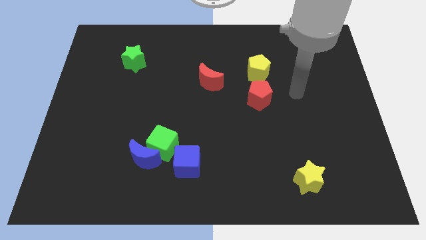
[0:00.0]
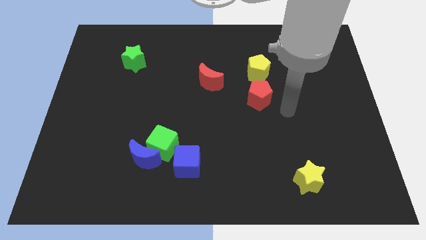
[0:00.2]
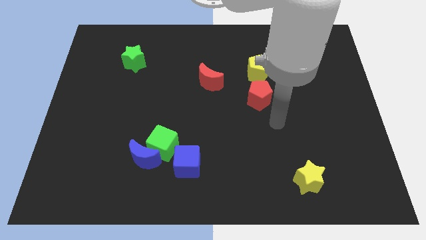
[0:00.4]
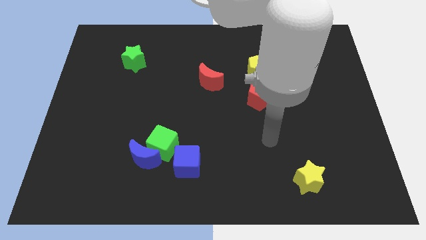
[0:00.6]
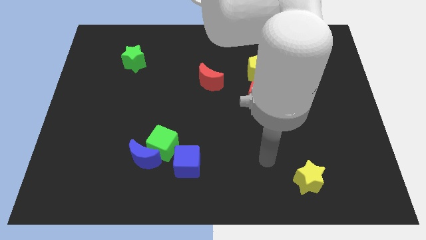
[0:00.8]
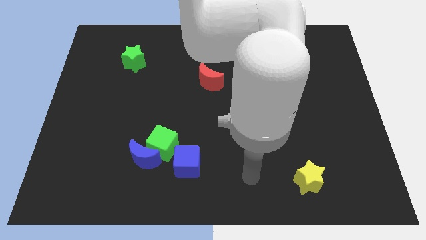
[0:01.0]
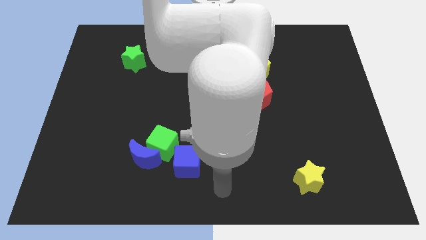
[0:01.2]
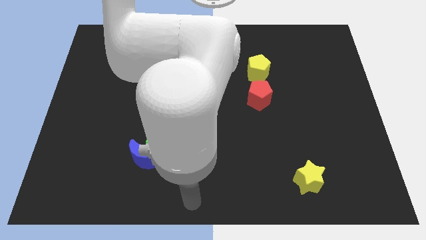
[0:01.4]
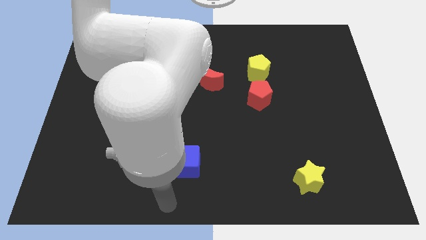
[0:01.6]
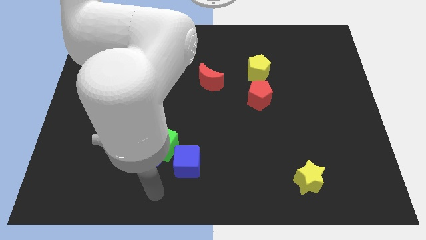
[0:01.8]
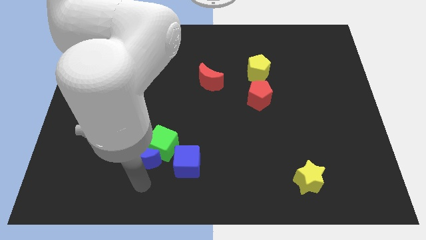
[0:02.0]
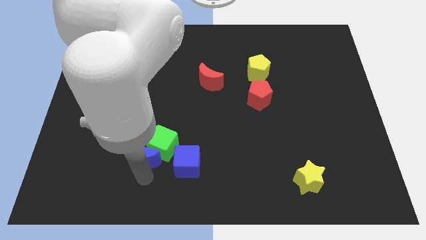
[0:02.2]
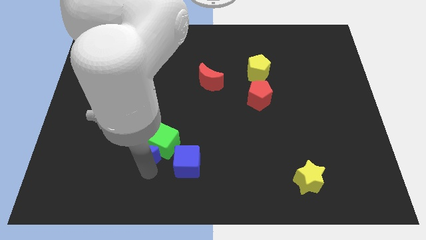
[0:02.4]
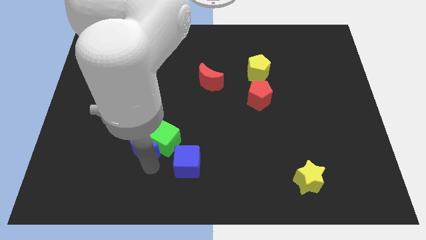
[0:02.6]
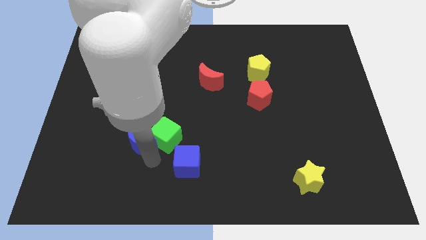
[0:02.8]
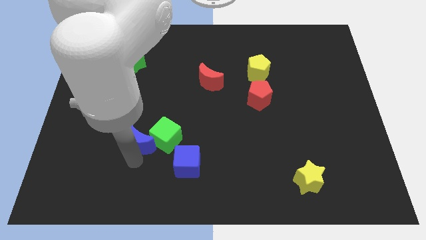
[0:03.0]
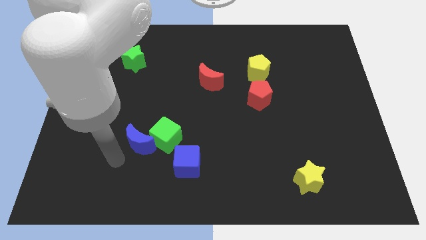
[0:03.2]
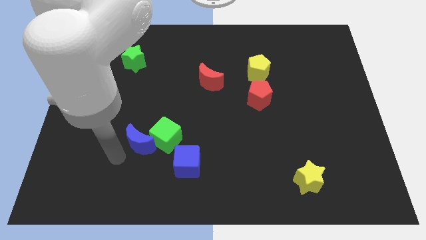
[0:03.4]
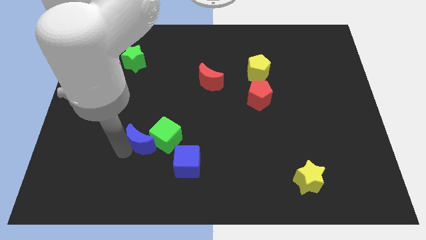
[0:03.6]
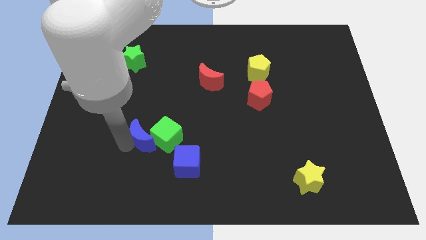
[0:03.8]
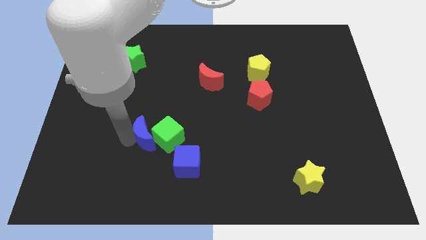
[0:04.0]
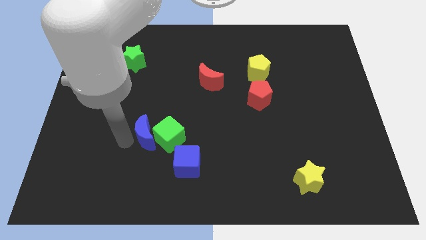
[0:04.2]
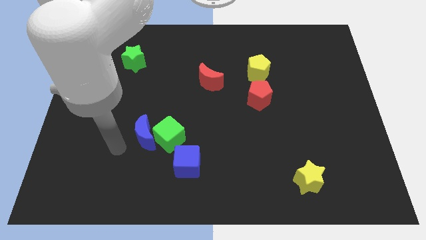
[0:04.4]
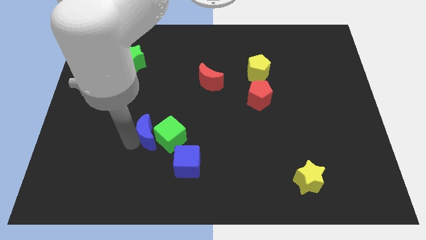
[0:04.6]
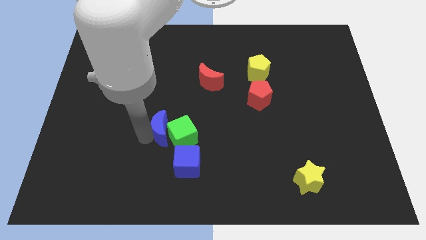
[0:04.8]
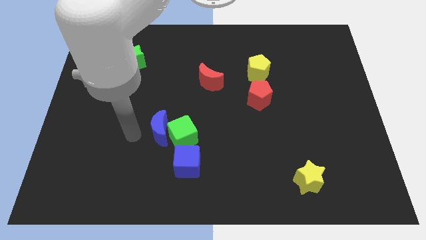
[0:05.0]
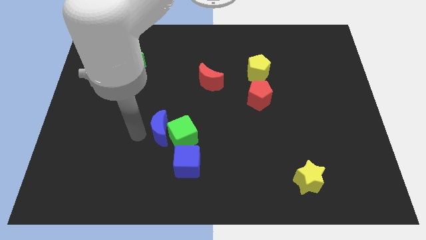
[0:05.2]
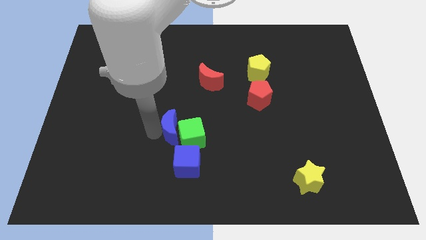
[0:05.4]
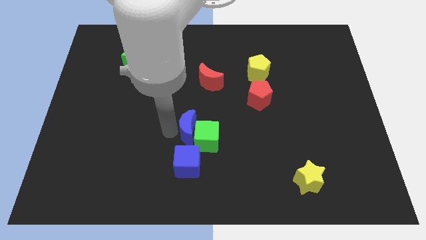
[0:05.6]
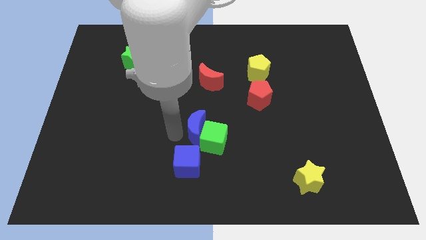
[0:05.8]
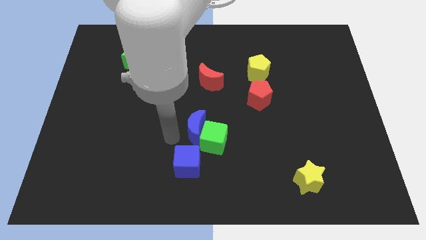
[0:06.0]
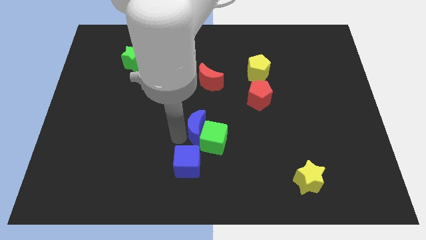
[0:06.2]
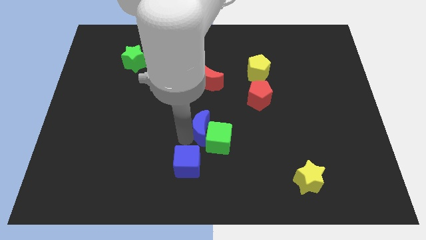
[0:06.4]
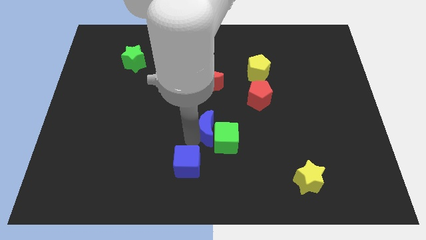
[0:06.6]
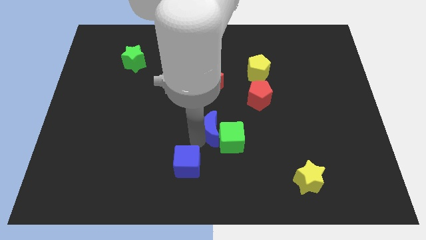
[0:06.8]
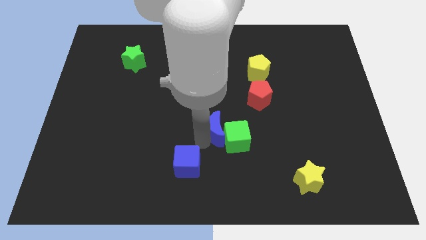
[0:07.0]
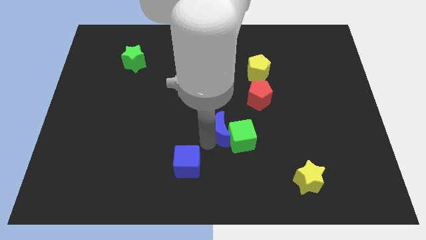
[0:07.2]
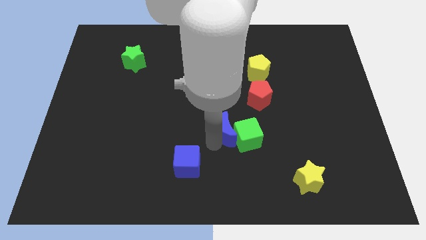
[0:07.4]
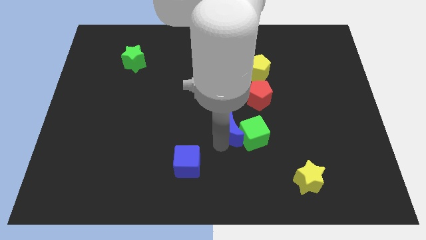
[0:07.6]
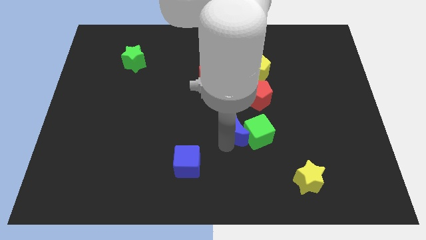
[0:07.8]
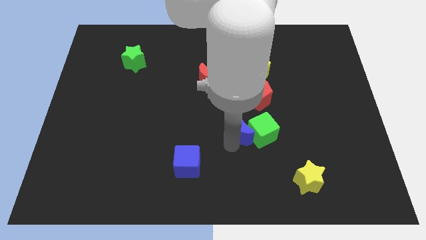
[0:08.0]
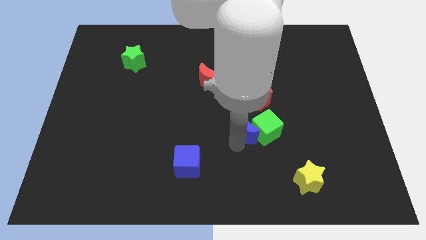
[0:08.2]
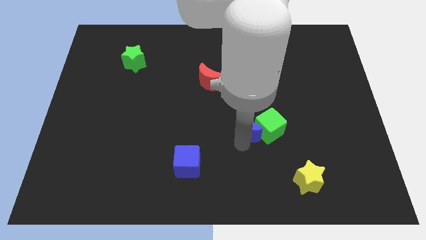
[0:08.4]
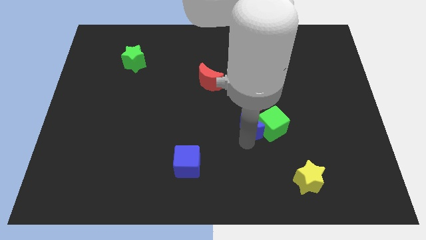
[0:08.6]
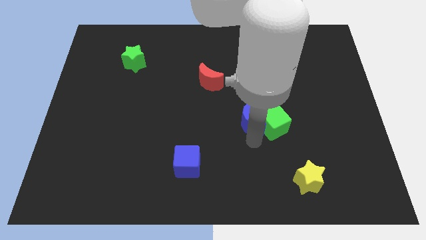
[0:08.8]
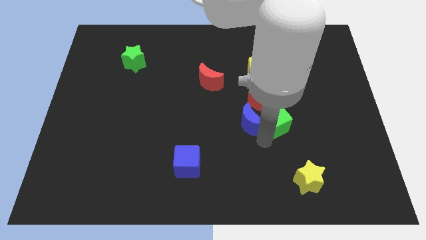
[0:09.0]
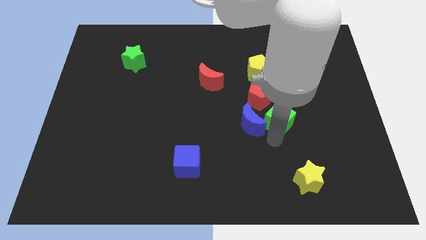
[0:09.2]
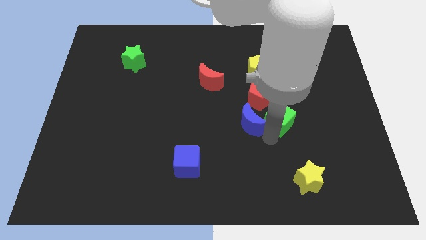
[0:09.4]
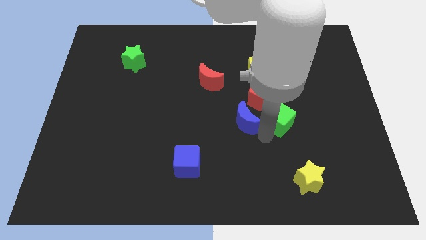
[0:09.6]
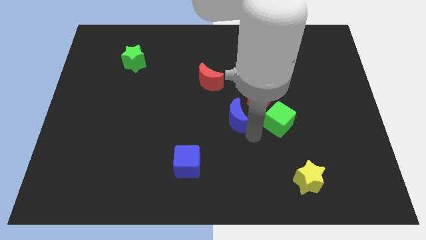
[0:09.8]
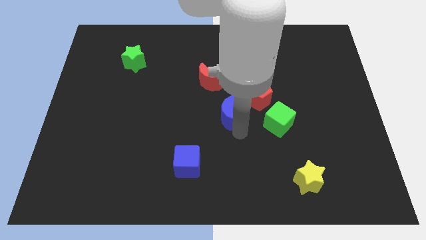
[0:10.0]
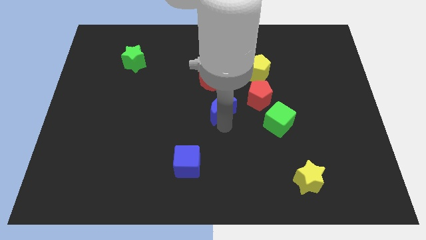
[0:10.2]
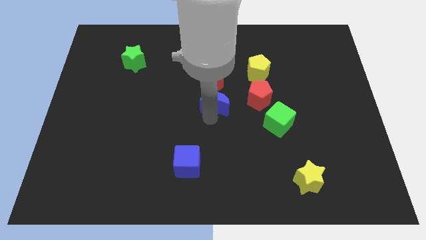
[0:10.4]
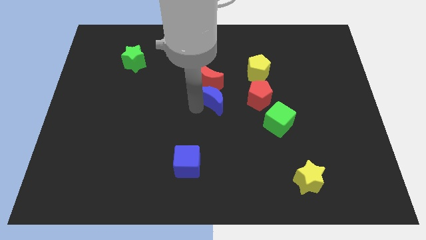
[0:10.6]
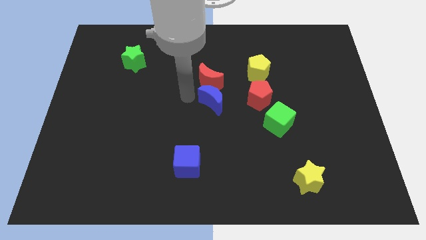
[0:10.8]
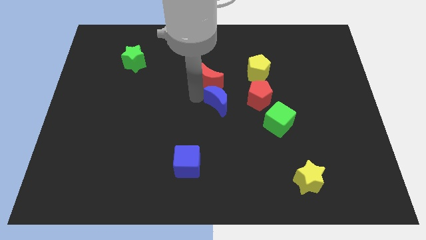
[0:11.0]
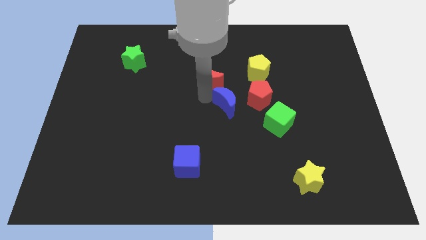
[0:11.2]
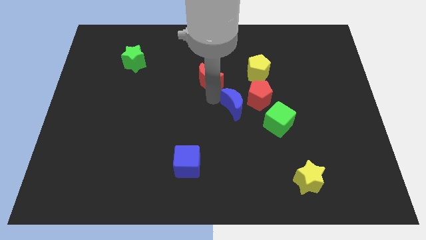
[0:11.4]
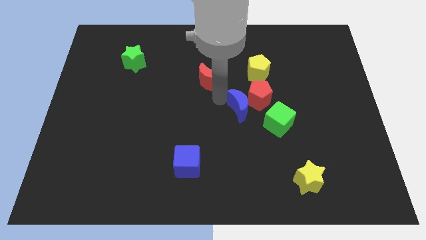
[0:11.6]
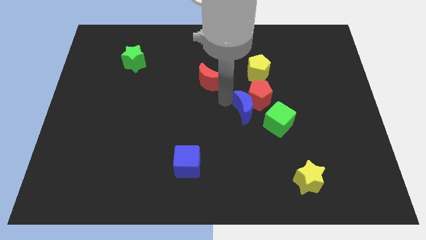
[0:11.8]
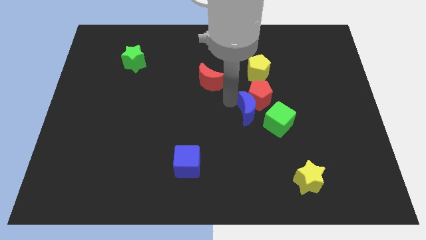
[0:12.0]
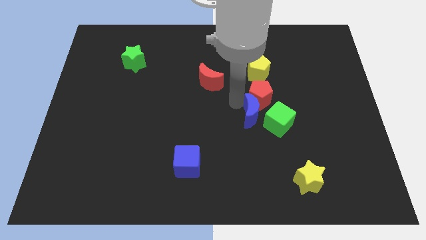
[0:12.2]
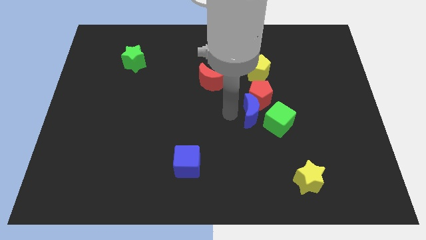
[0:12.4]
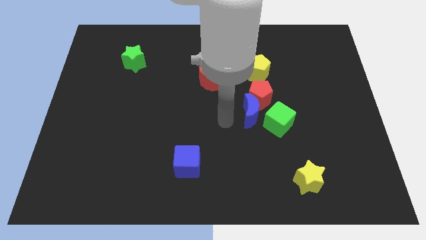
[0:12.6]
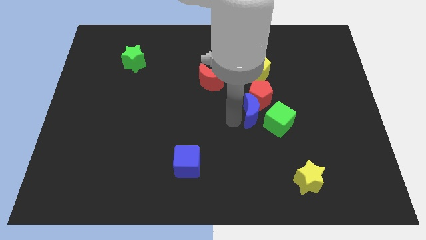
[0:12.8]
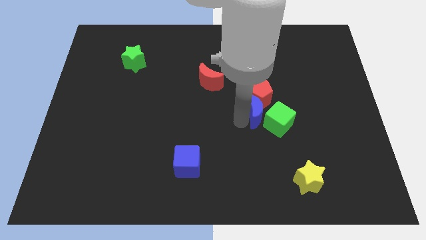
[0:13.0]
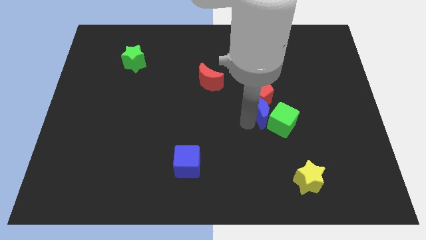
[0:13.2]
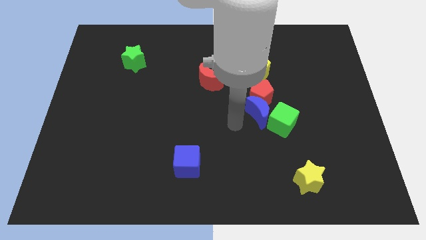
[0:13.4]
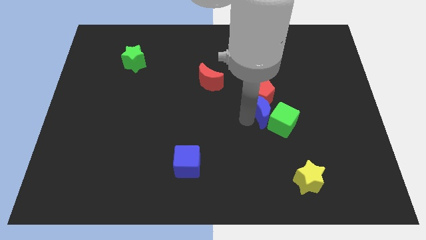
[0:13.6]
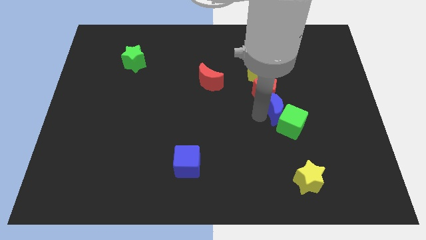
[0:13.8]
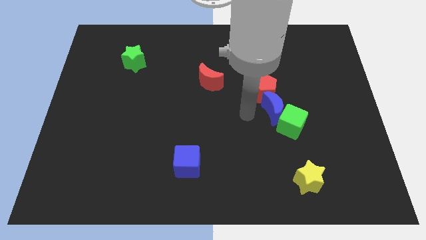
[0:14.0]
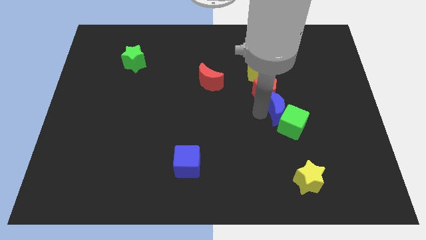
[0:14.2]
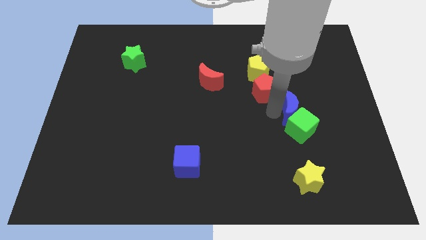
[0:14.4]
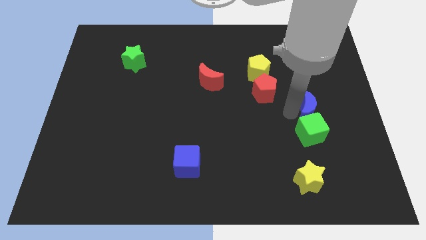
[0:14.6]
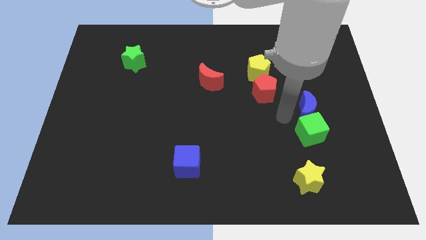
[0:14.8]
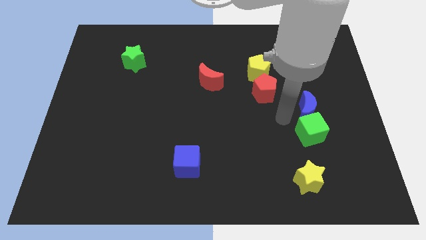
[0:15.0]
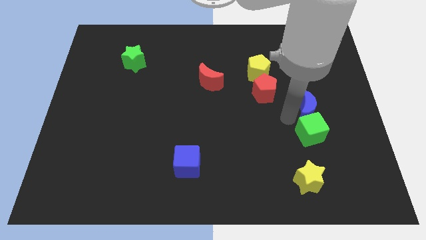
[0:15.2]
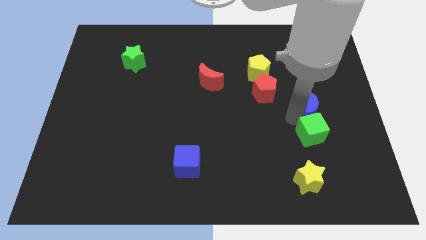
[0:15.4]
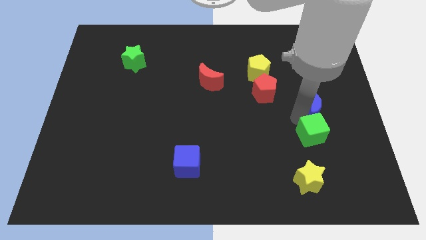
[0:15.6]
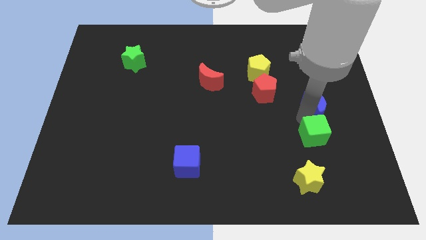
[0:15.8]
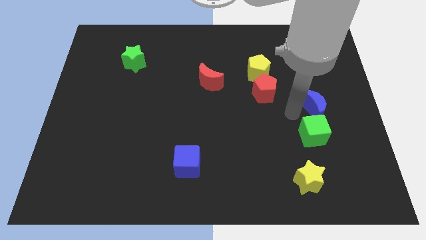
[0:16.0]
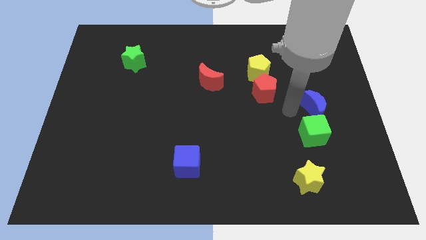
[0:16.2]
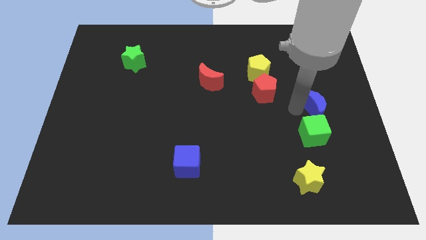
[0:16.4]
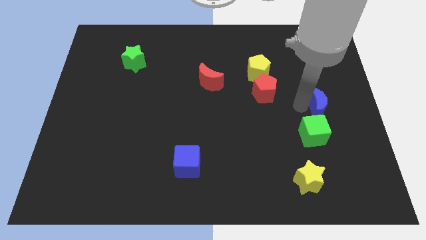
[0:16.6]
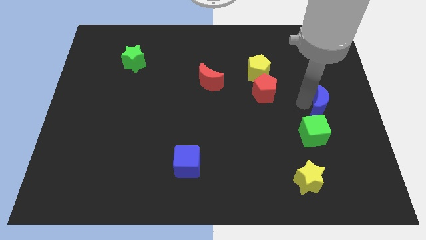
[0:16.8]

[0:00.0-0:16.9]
push the blue moon to the right side
